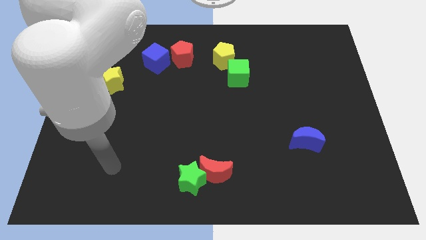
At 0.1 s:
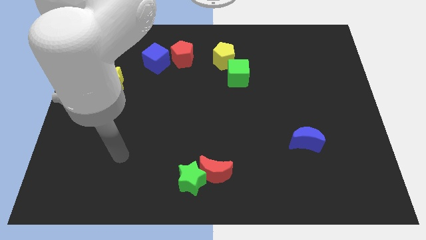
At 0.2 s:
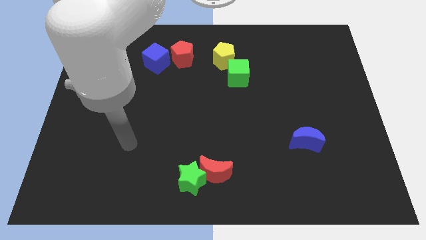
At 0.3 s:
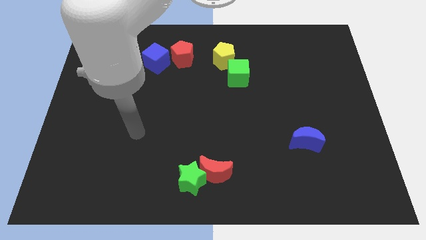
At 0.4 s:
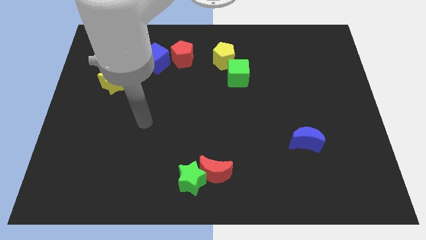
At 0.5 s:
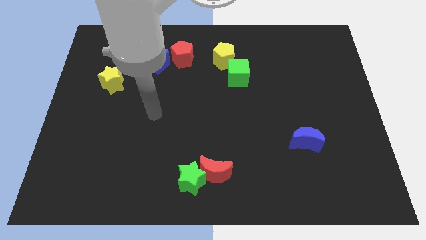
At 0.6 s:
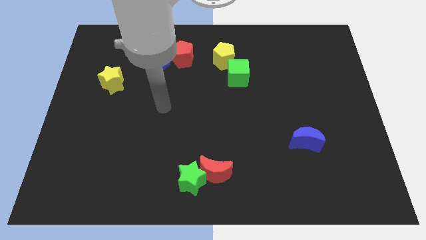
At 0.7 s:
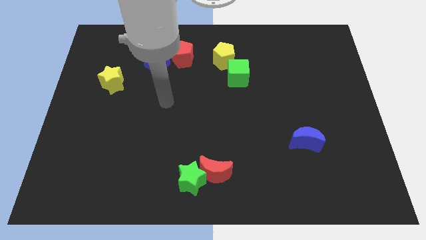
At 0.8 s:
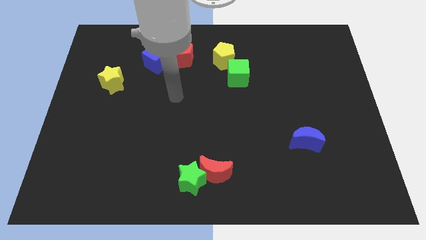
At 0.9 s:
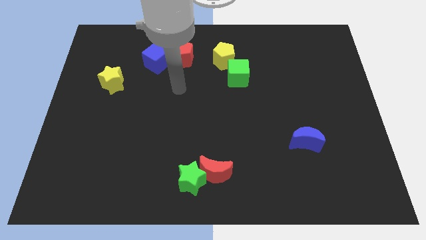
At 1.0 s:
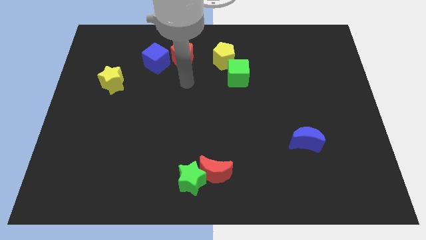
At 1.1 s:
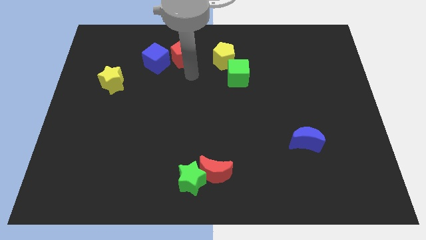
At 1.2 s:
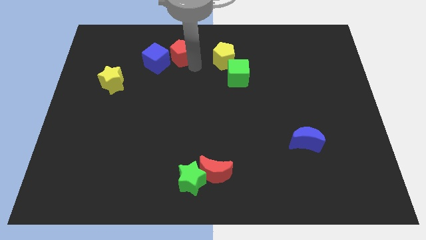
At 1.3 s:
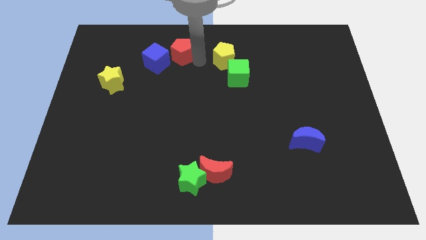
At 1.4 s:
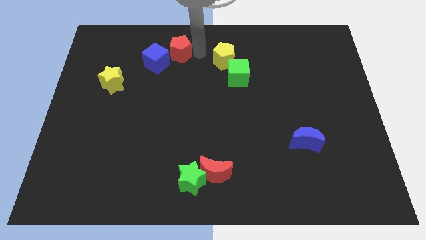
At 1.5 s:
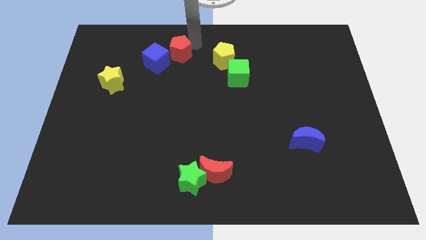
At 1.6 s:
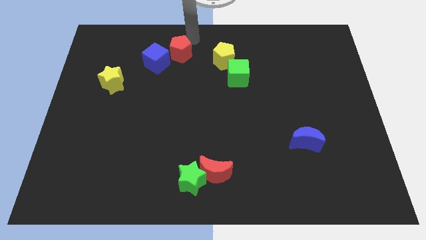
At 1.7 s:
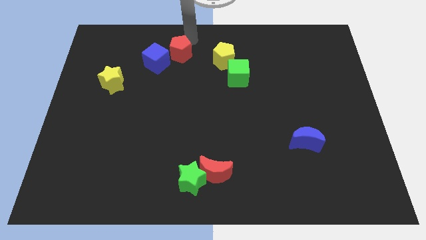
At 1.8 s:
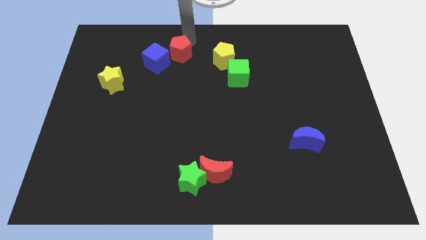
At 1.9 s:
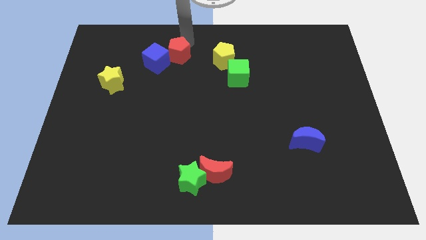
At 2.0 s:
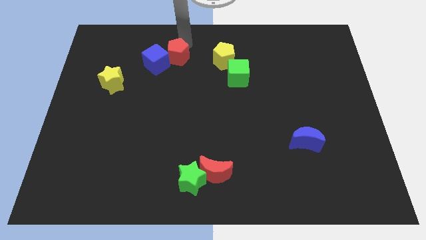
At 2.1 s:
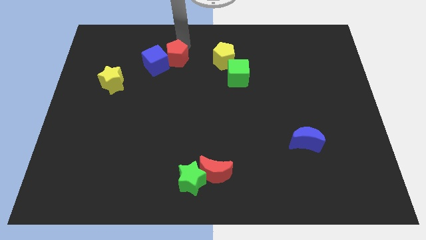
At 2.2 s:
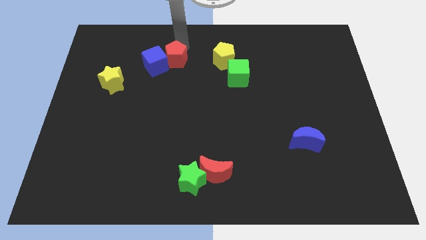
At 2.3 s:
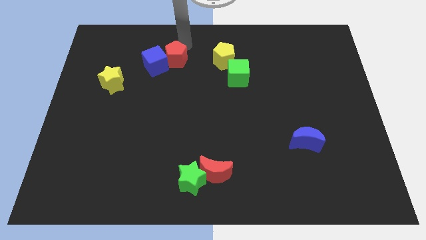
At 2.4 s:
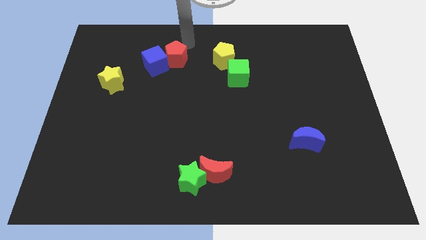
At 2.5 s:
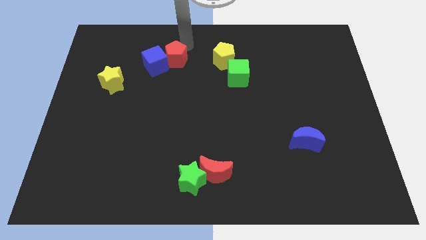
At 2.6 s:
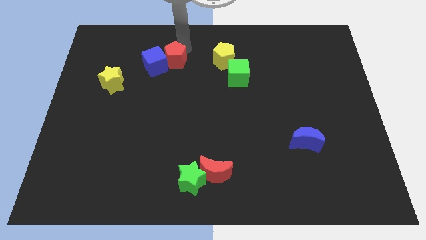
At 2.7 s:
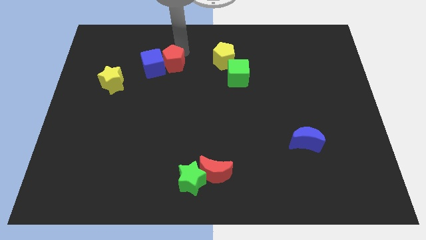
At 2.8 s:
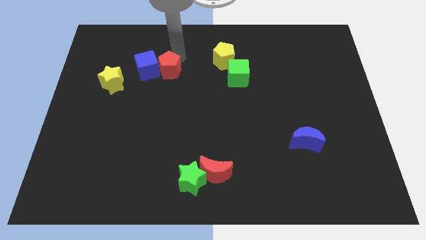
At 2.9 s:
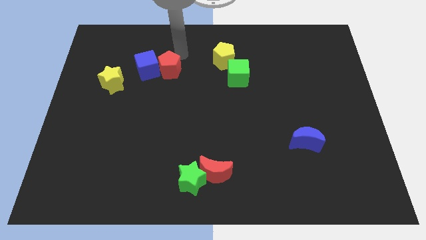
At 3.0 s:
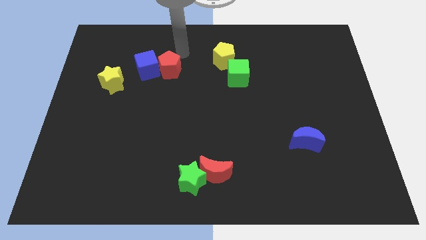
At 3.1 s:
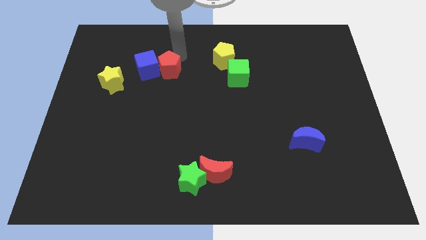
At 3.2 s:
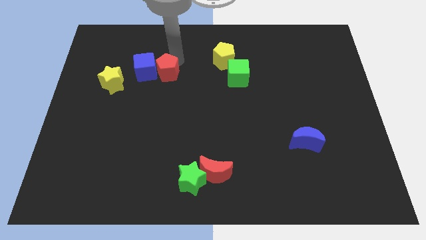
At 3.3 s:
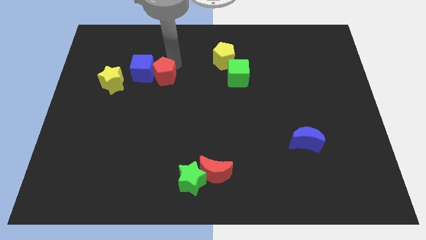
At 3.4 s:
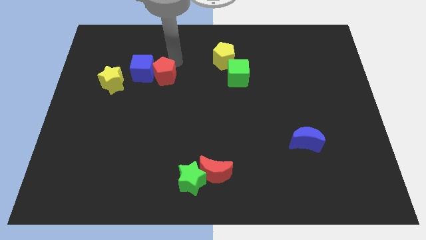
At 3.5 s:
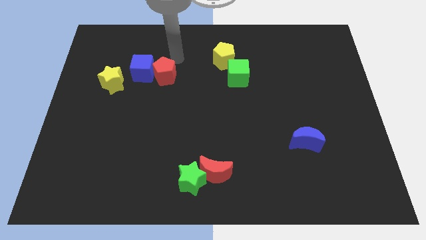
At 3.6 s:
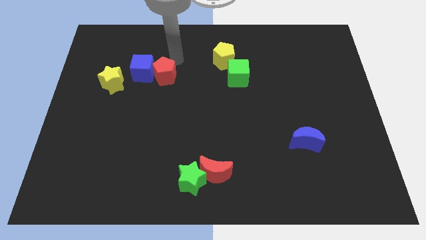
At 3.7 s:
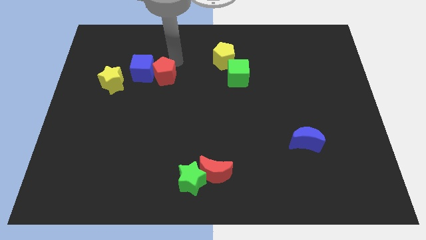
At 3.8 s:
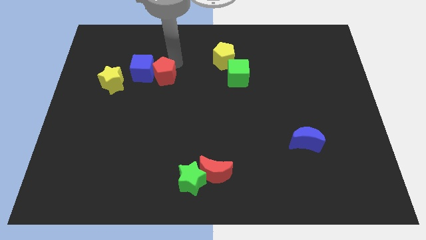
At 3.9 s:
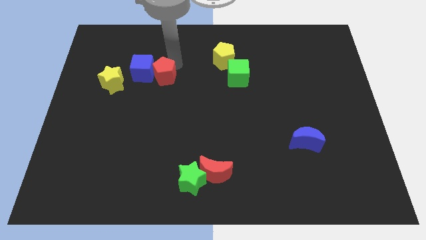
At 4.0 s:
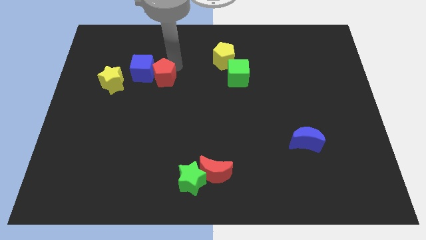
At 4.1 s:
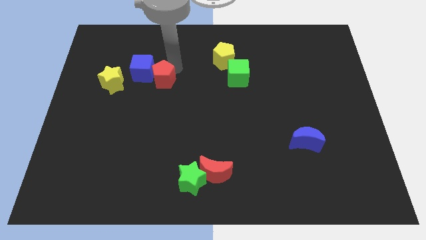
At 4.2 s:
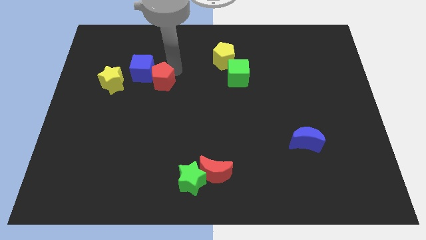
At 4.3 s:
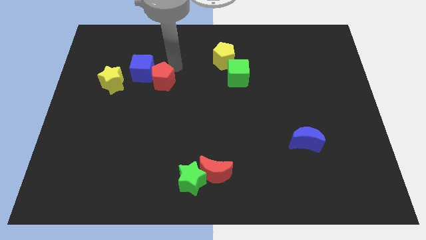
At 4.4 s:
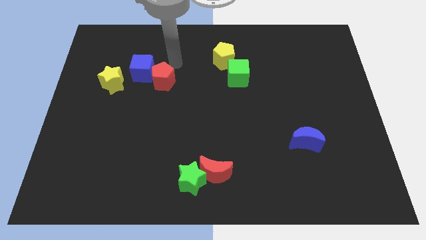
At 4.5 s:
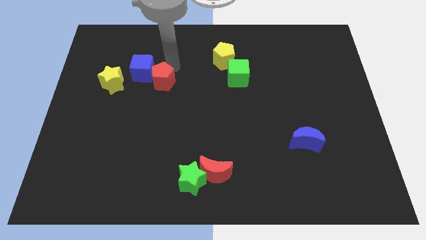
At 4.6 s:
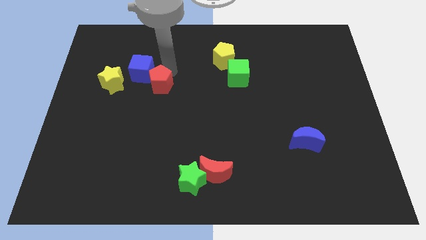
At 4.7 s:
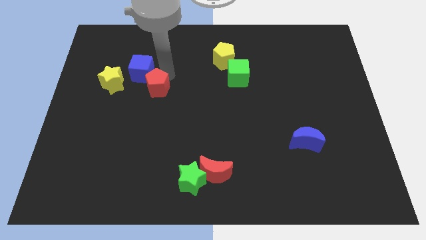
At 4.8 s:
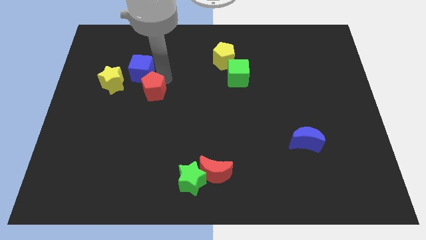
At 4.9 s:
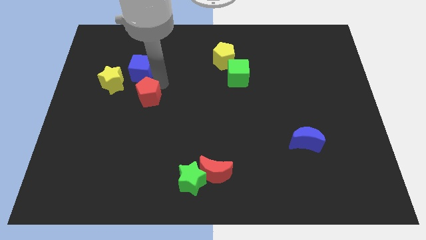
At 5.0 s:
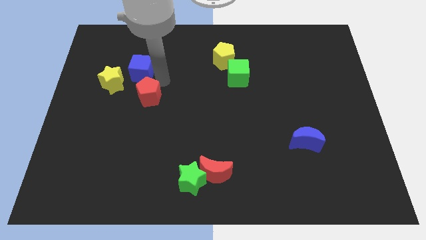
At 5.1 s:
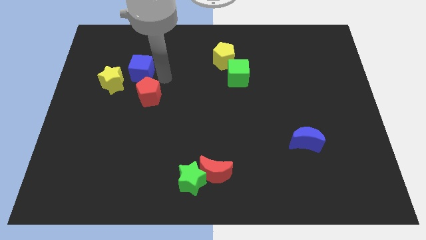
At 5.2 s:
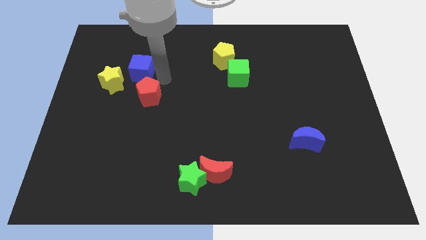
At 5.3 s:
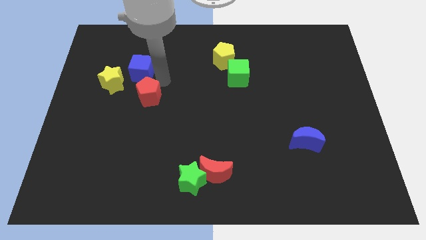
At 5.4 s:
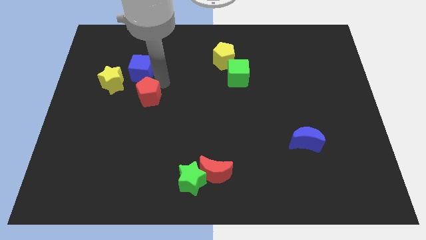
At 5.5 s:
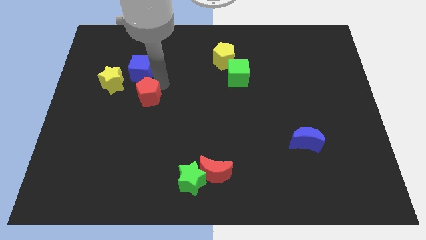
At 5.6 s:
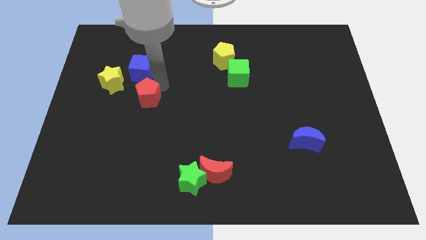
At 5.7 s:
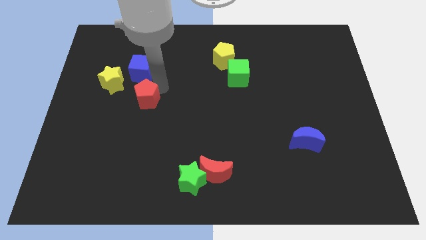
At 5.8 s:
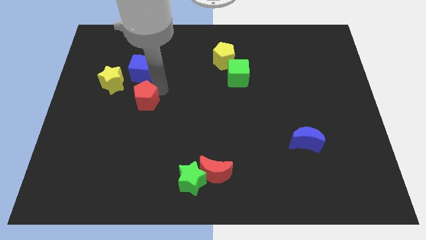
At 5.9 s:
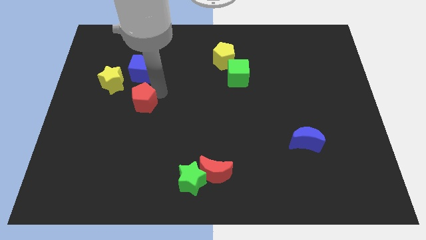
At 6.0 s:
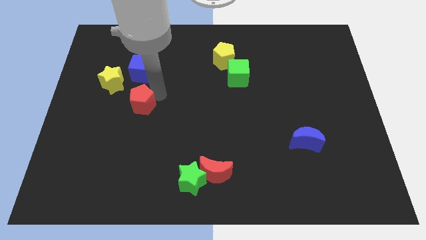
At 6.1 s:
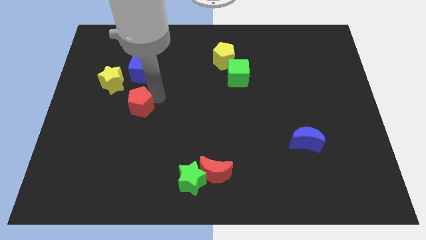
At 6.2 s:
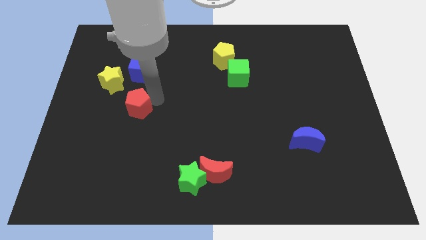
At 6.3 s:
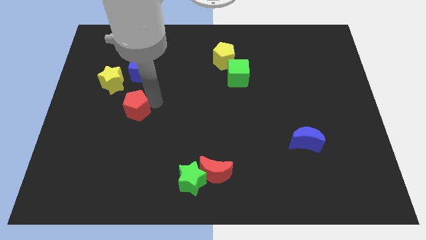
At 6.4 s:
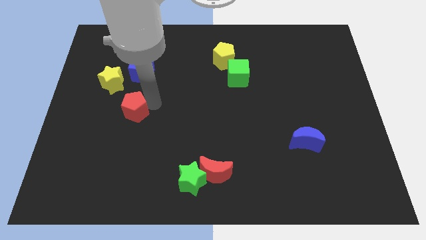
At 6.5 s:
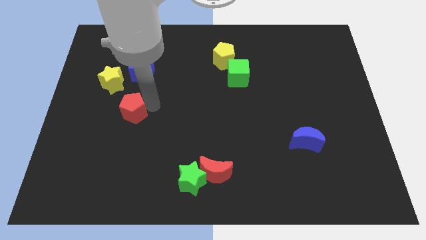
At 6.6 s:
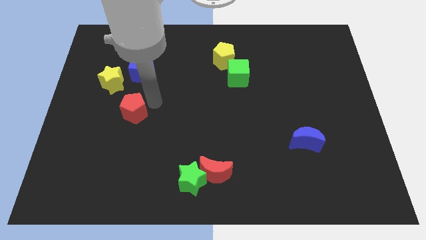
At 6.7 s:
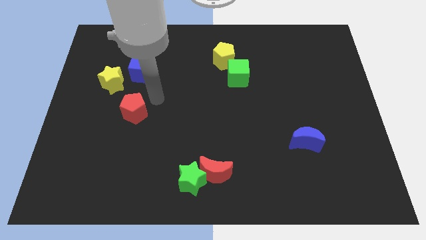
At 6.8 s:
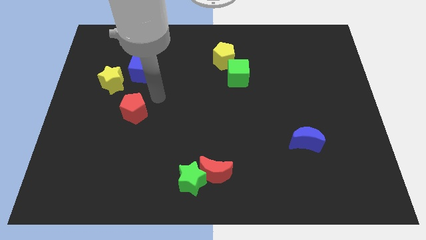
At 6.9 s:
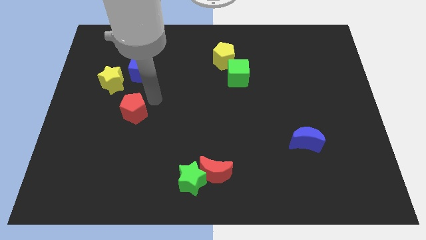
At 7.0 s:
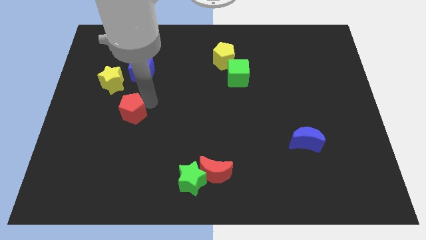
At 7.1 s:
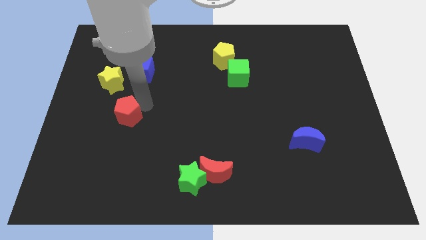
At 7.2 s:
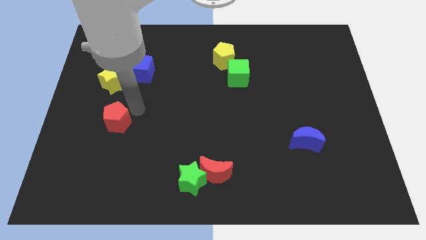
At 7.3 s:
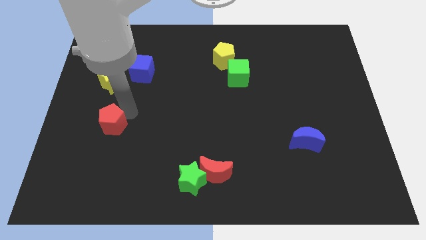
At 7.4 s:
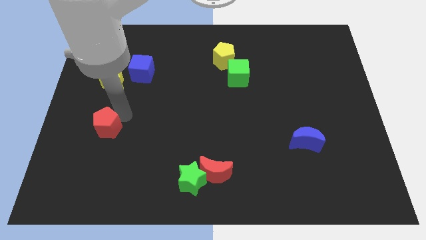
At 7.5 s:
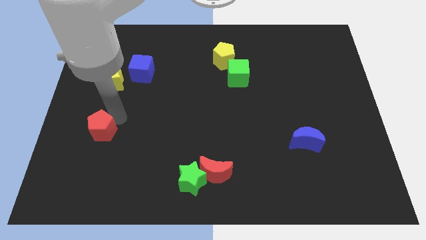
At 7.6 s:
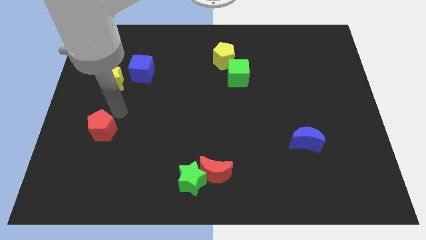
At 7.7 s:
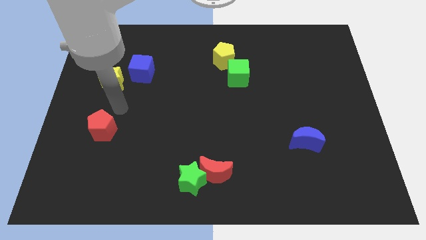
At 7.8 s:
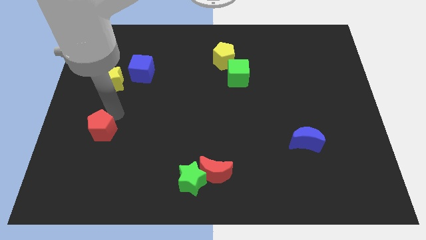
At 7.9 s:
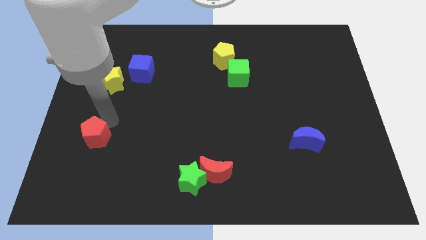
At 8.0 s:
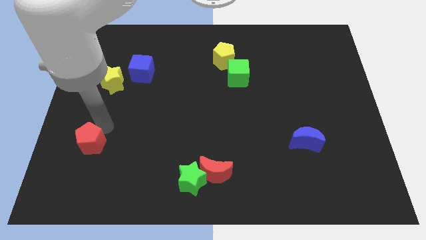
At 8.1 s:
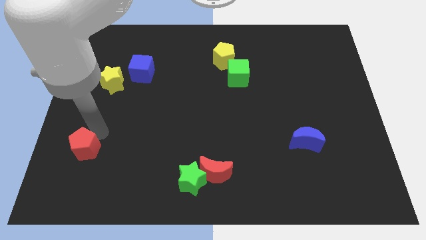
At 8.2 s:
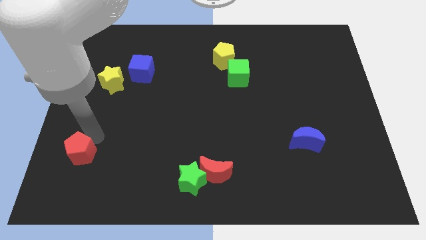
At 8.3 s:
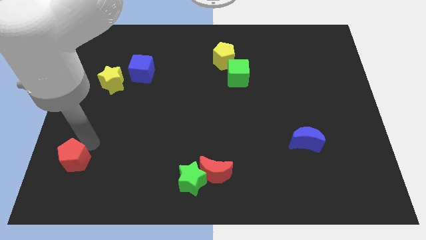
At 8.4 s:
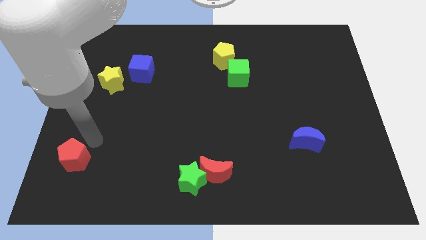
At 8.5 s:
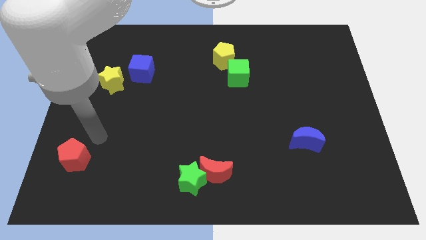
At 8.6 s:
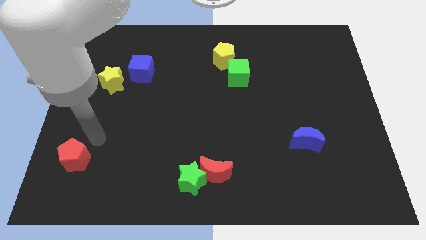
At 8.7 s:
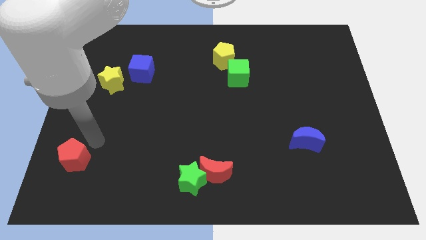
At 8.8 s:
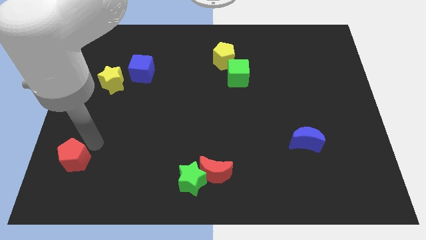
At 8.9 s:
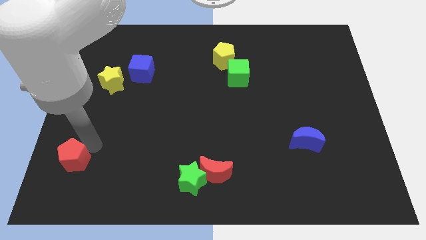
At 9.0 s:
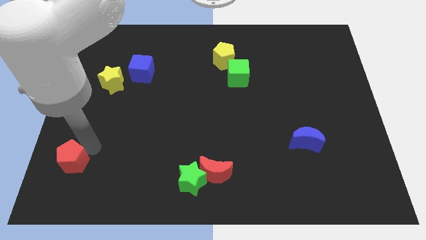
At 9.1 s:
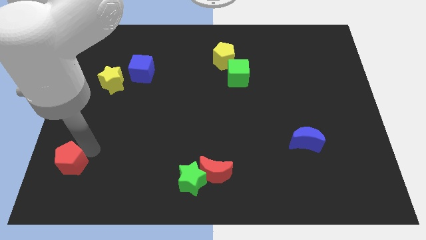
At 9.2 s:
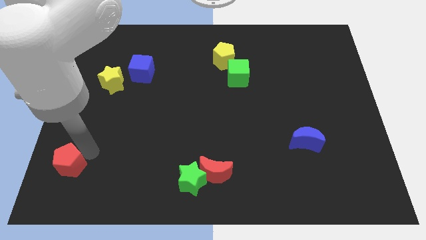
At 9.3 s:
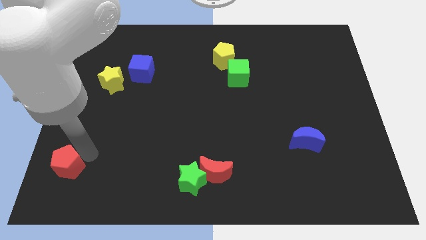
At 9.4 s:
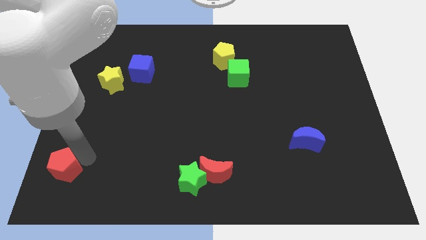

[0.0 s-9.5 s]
put the red pentagon to the lower left corner
